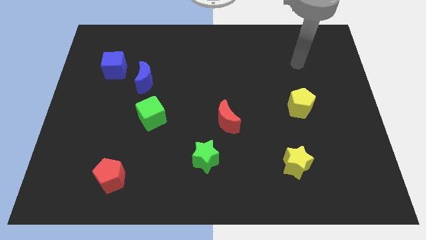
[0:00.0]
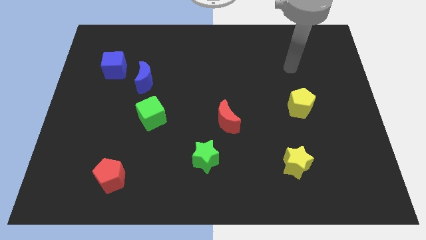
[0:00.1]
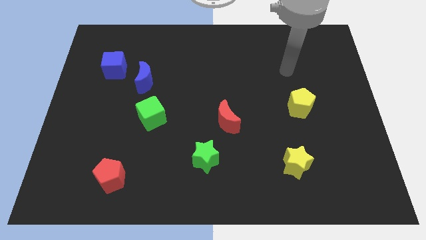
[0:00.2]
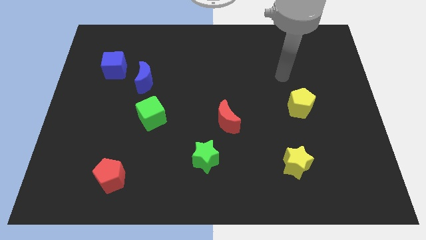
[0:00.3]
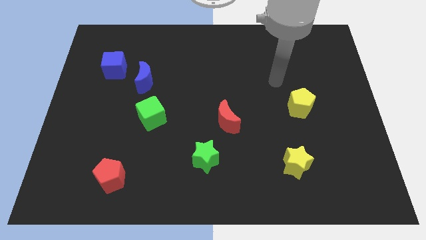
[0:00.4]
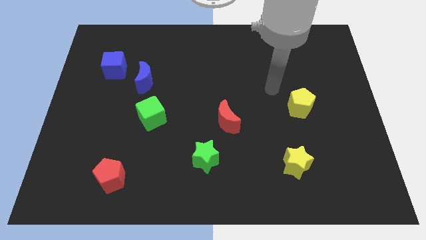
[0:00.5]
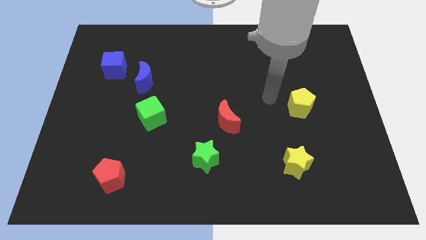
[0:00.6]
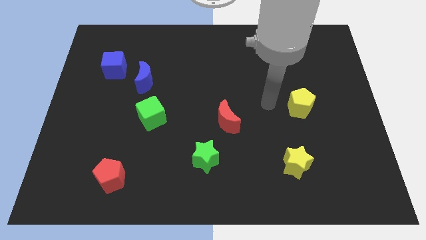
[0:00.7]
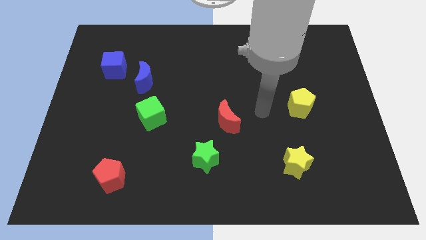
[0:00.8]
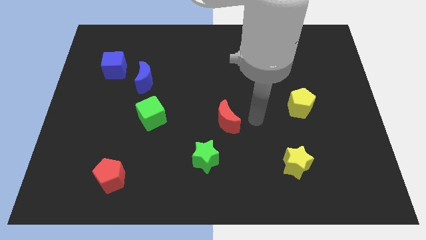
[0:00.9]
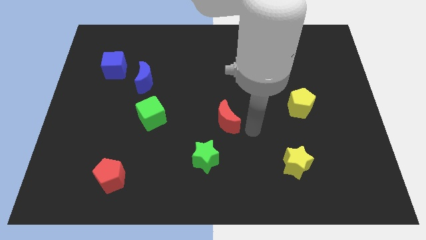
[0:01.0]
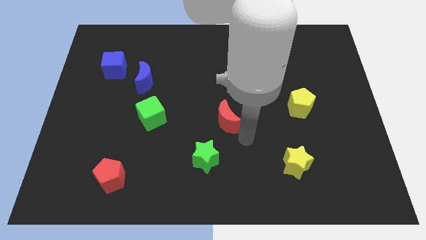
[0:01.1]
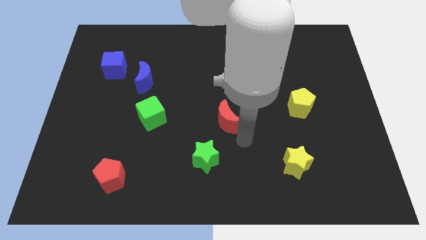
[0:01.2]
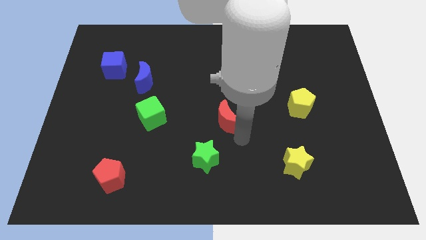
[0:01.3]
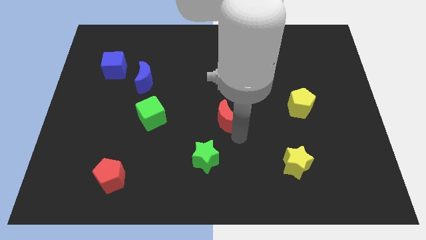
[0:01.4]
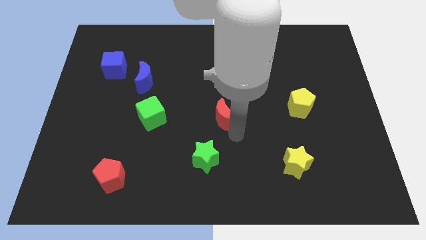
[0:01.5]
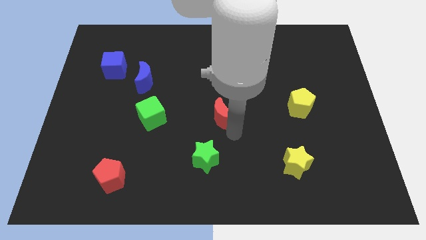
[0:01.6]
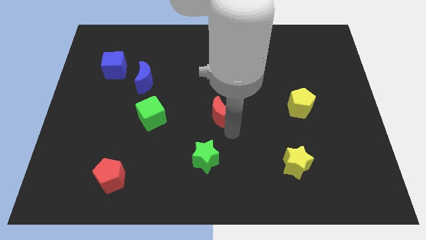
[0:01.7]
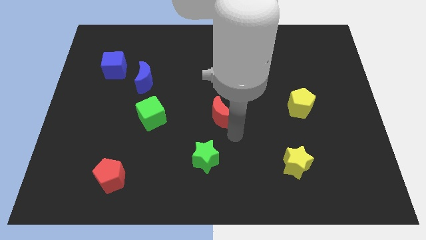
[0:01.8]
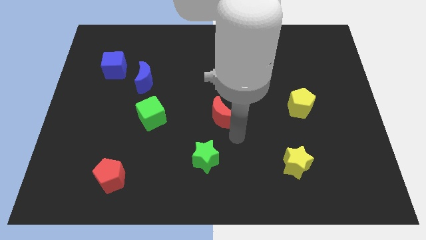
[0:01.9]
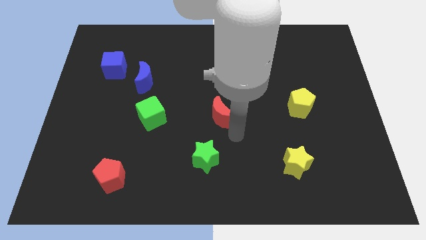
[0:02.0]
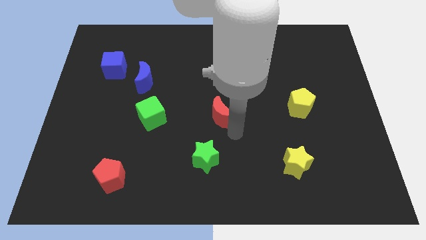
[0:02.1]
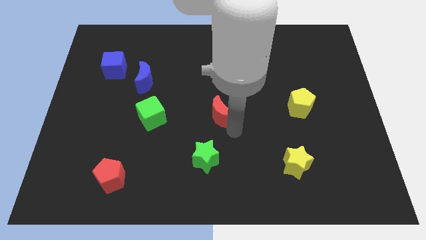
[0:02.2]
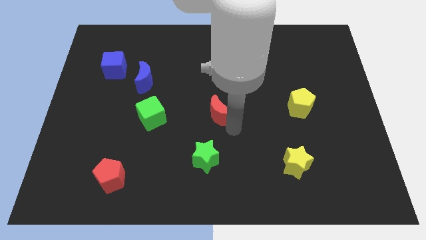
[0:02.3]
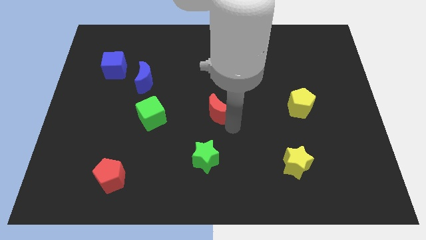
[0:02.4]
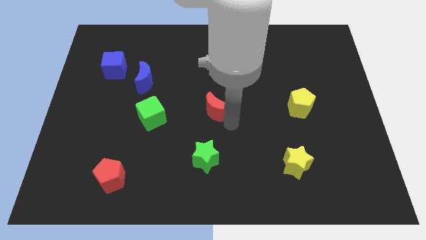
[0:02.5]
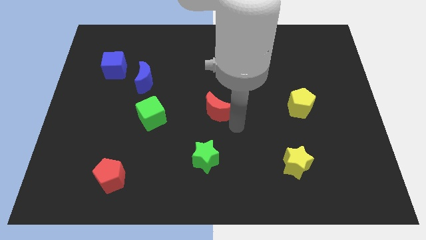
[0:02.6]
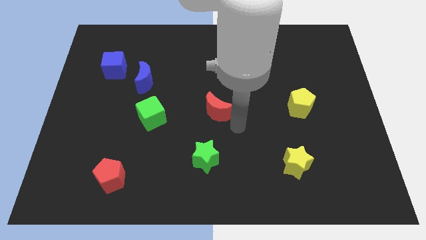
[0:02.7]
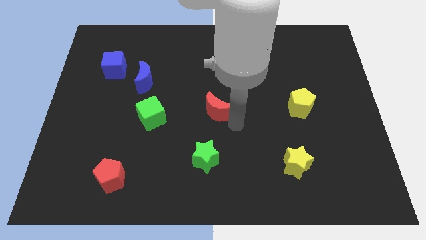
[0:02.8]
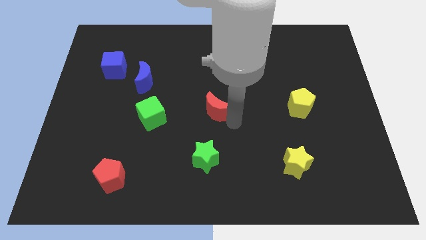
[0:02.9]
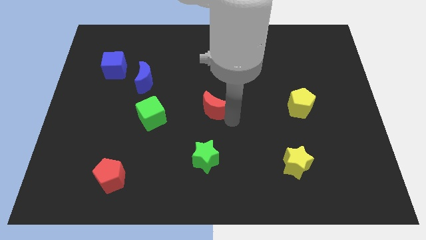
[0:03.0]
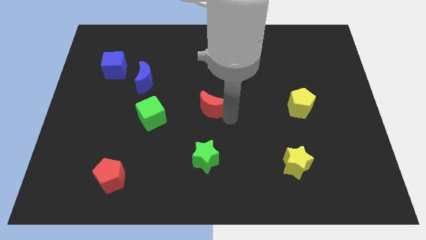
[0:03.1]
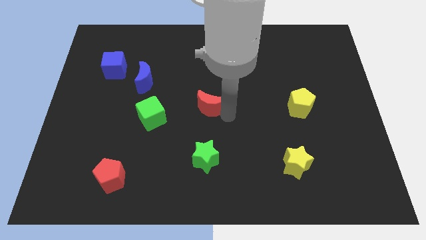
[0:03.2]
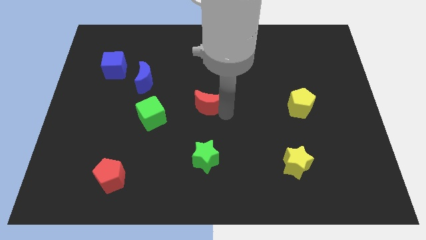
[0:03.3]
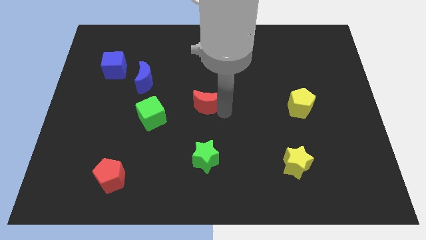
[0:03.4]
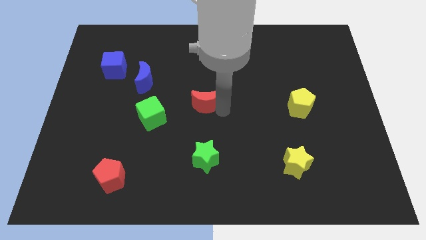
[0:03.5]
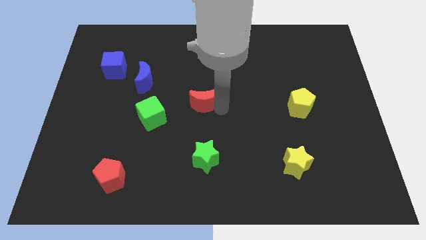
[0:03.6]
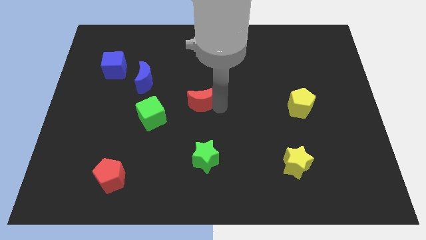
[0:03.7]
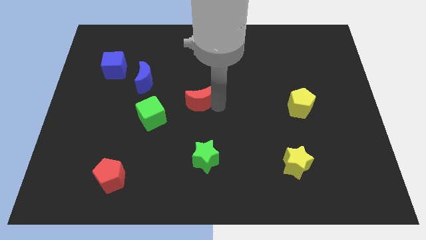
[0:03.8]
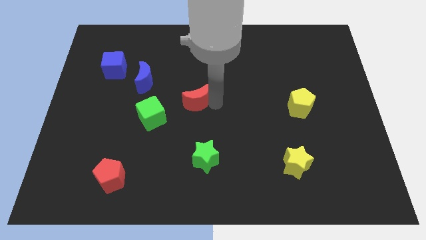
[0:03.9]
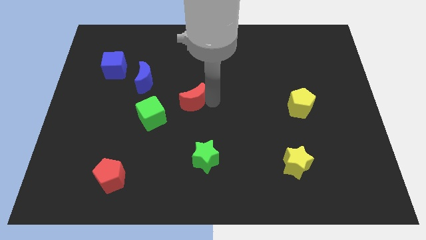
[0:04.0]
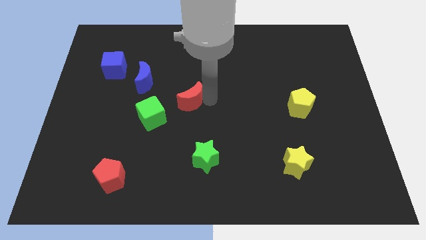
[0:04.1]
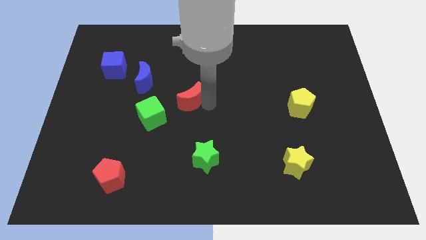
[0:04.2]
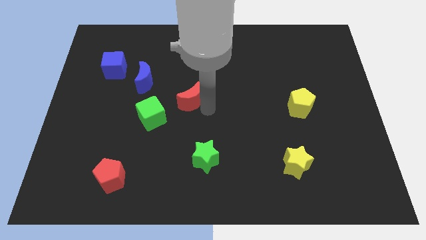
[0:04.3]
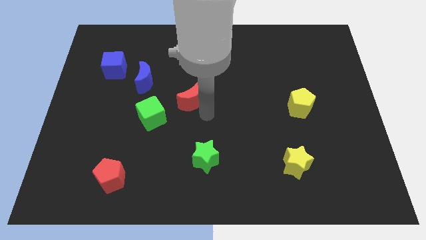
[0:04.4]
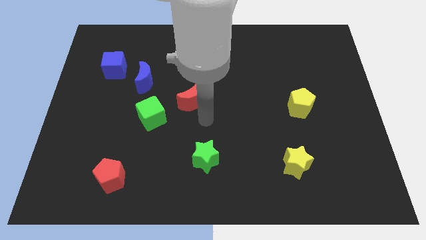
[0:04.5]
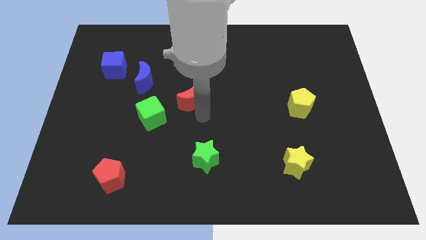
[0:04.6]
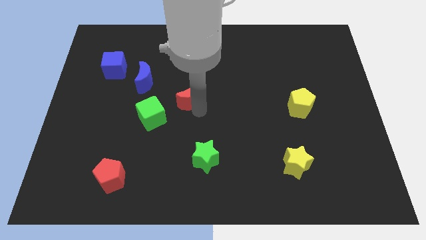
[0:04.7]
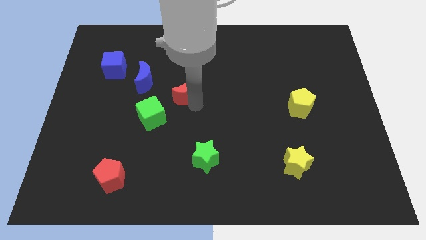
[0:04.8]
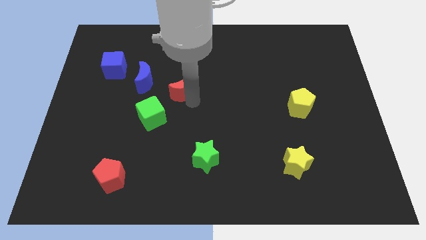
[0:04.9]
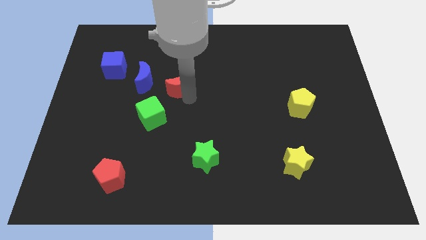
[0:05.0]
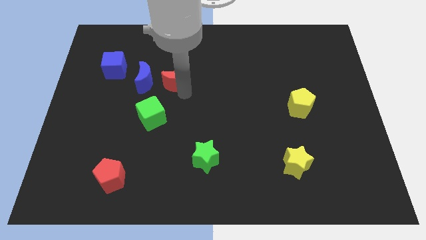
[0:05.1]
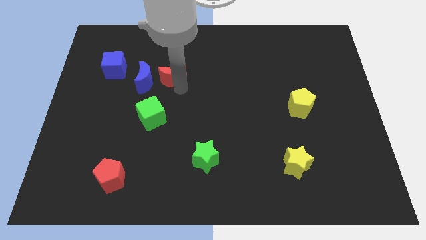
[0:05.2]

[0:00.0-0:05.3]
put the red moon to the top right side of the blue moon

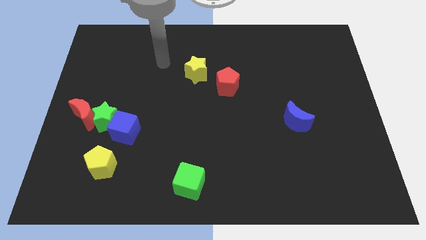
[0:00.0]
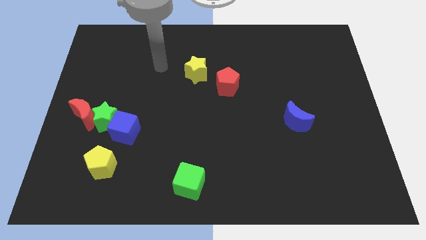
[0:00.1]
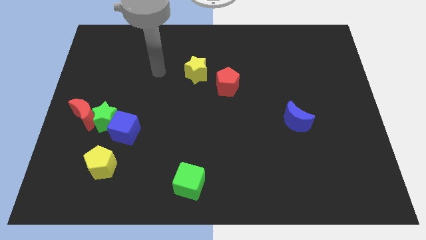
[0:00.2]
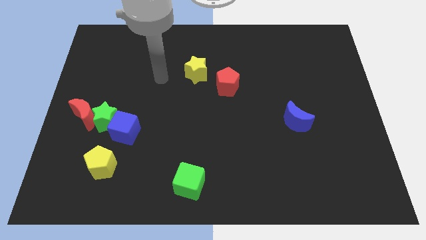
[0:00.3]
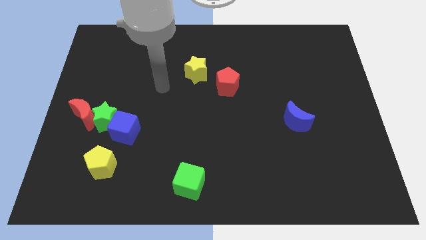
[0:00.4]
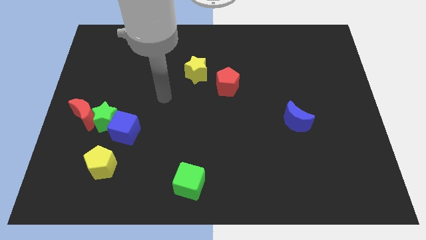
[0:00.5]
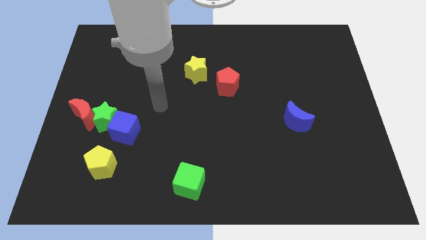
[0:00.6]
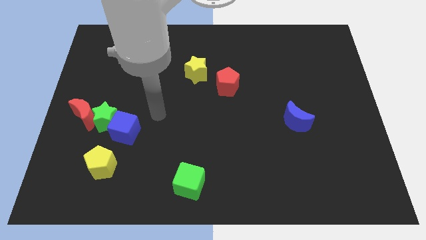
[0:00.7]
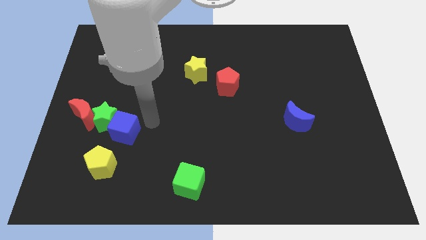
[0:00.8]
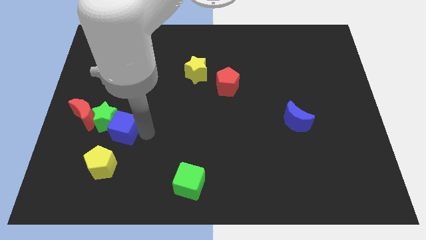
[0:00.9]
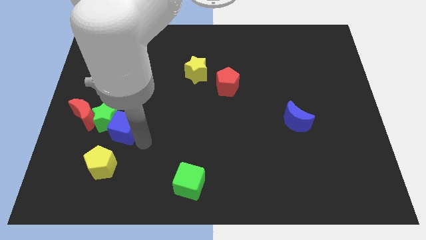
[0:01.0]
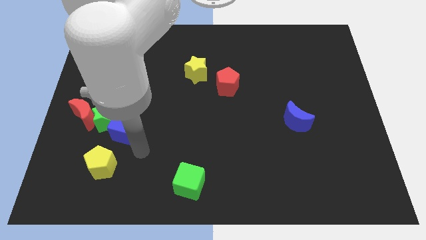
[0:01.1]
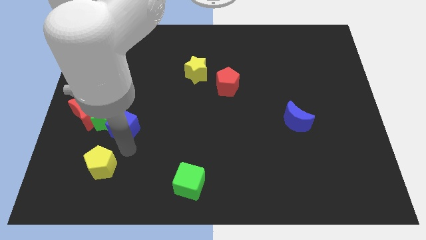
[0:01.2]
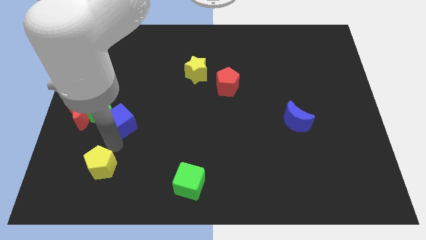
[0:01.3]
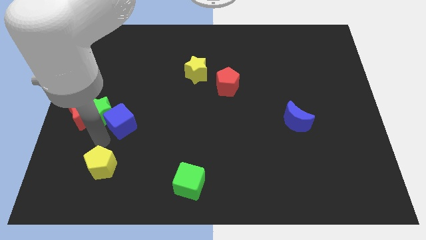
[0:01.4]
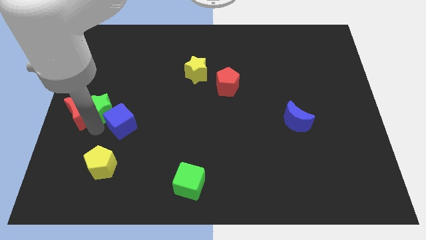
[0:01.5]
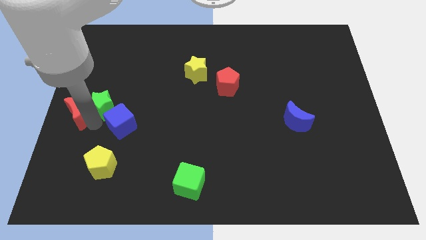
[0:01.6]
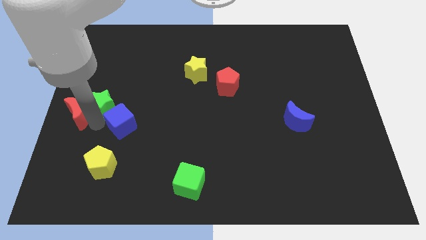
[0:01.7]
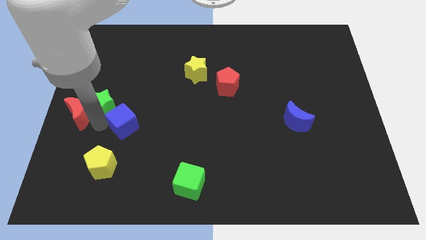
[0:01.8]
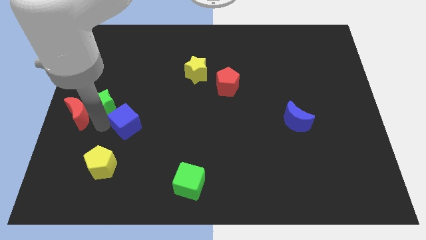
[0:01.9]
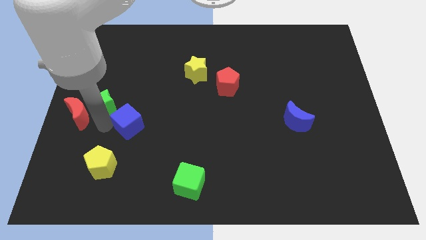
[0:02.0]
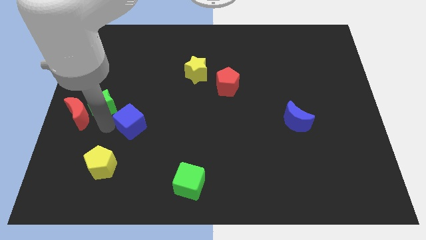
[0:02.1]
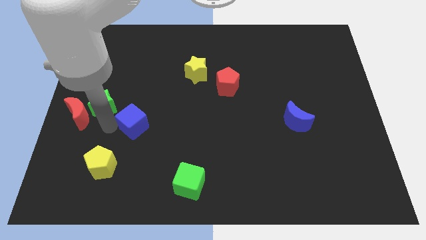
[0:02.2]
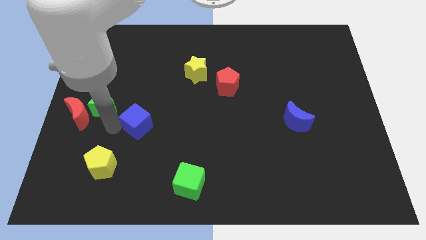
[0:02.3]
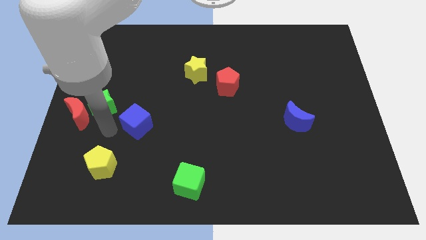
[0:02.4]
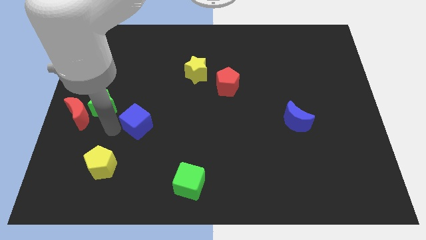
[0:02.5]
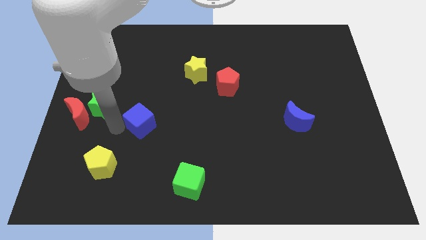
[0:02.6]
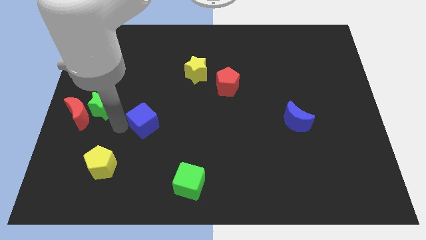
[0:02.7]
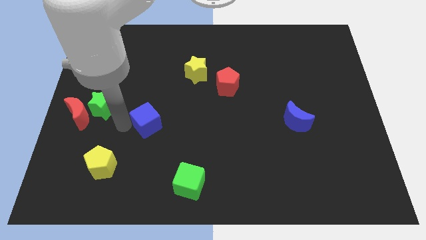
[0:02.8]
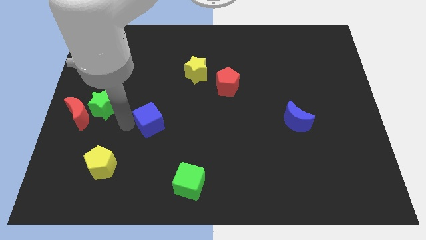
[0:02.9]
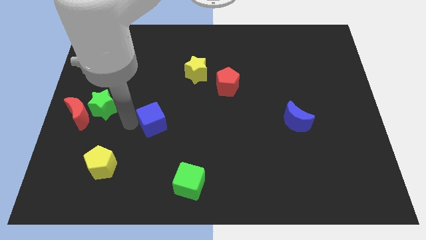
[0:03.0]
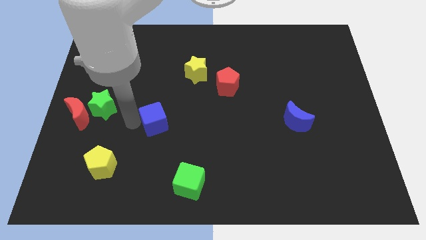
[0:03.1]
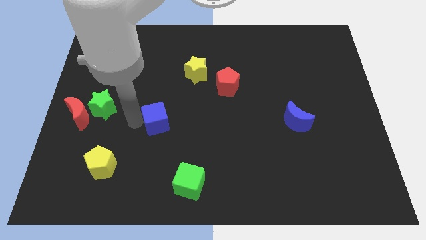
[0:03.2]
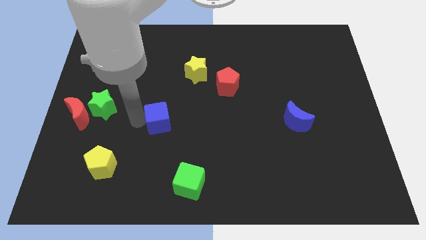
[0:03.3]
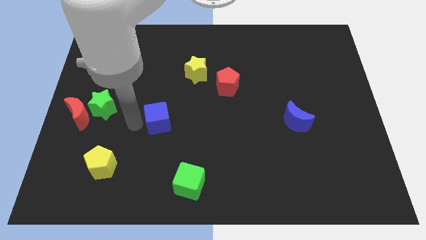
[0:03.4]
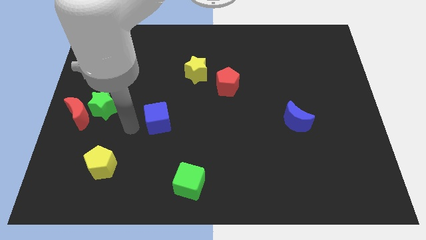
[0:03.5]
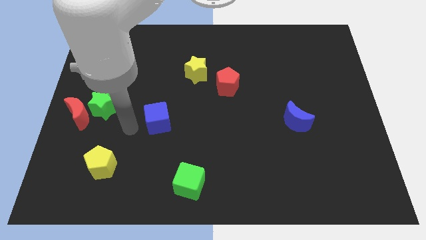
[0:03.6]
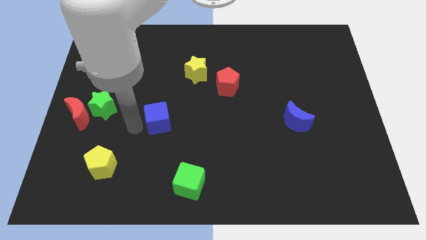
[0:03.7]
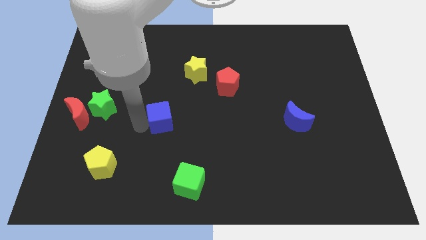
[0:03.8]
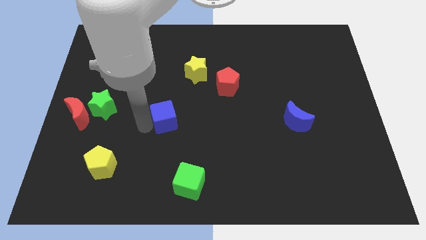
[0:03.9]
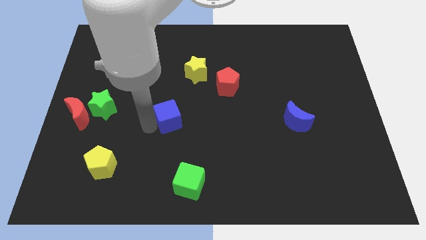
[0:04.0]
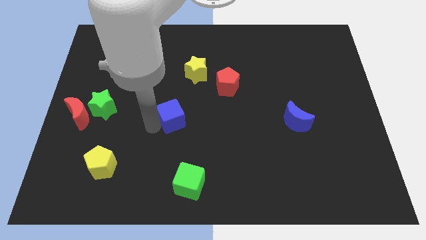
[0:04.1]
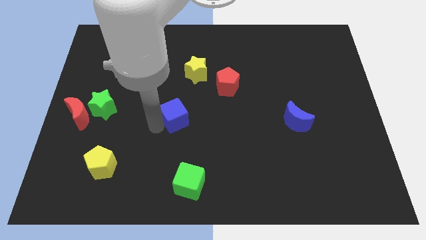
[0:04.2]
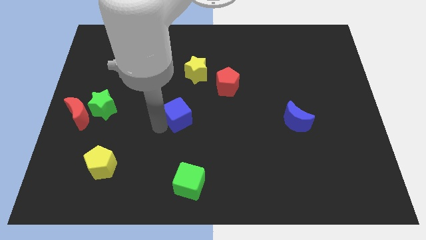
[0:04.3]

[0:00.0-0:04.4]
push the blue cube below the yellow star
